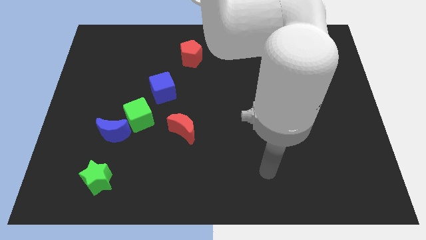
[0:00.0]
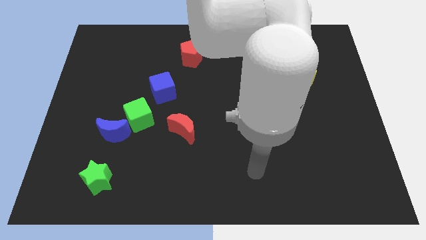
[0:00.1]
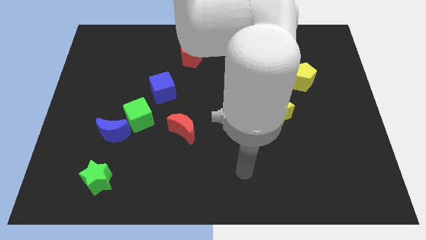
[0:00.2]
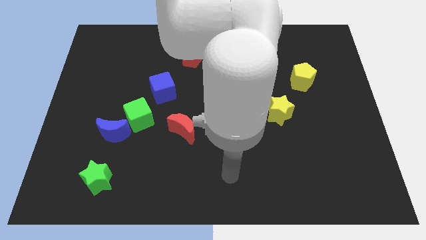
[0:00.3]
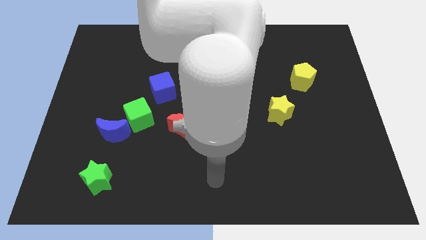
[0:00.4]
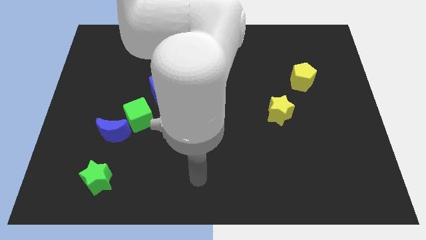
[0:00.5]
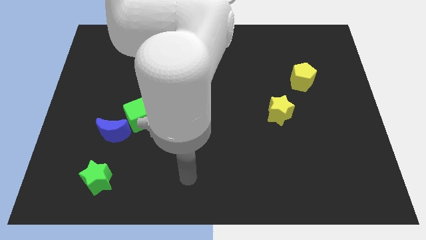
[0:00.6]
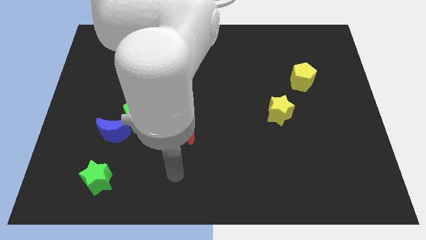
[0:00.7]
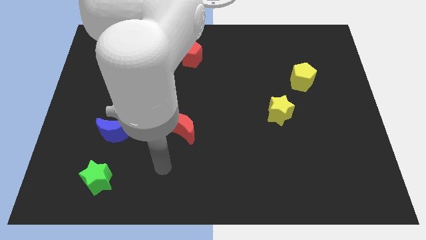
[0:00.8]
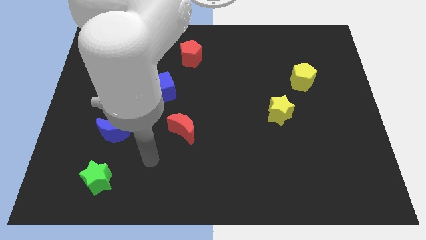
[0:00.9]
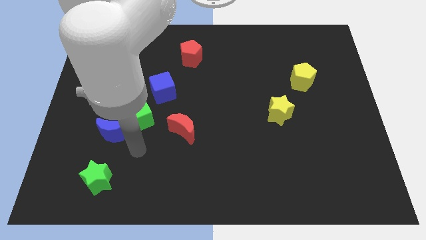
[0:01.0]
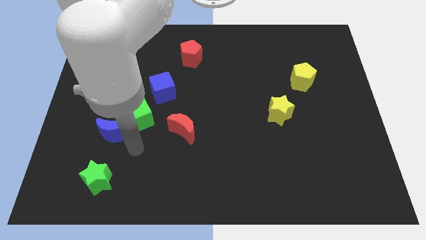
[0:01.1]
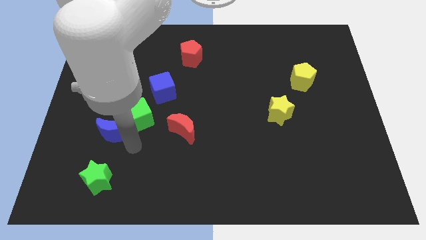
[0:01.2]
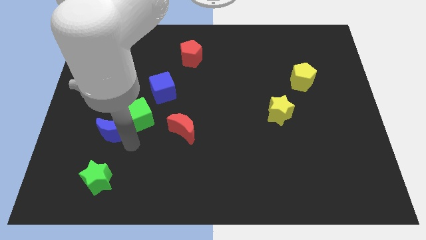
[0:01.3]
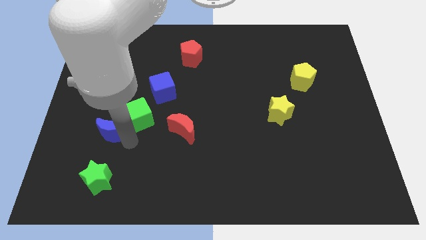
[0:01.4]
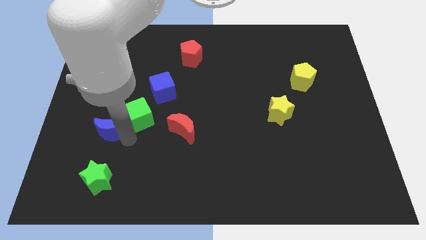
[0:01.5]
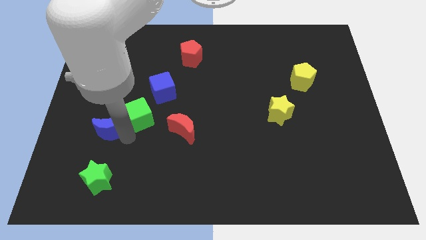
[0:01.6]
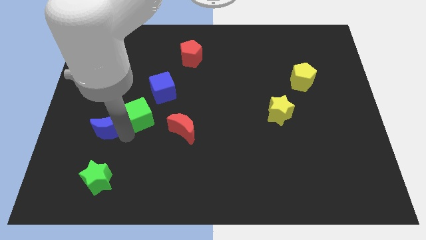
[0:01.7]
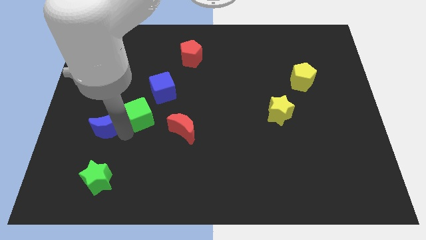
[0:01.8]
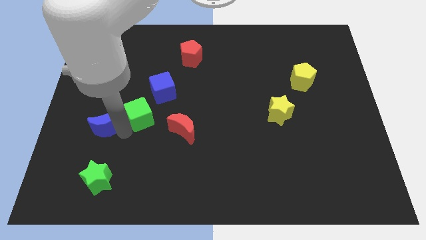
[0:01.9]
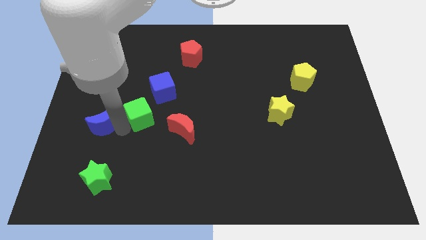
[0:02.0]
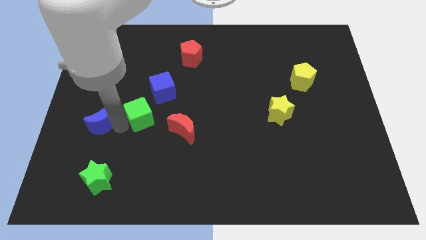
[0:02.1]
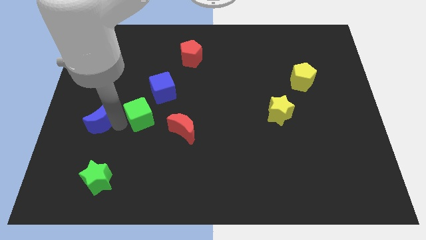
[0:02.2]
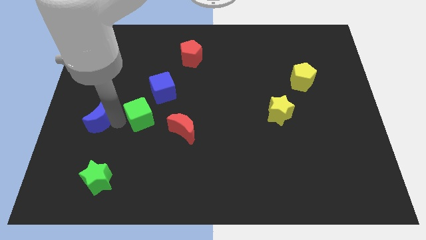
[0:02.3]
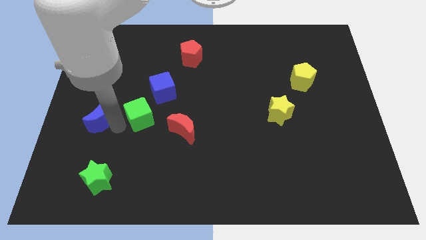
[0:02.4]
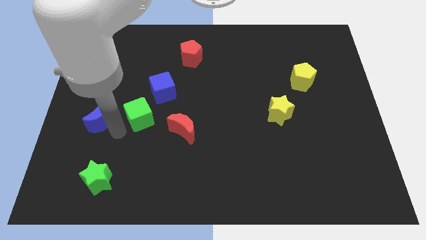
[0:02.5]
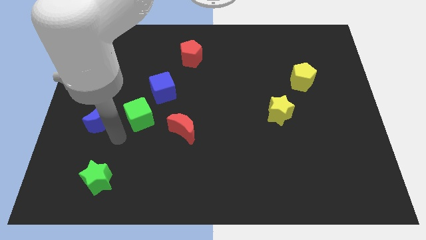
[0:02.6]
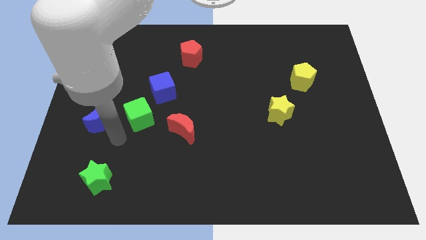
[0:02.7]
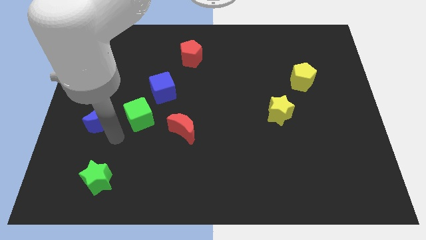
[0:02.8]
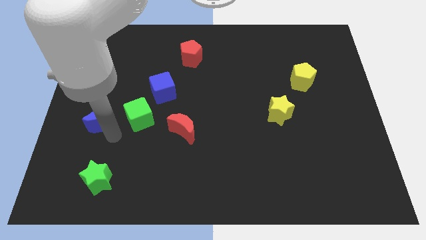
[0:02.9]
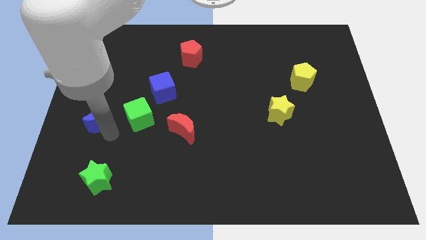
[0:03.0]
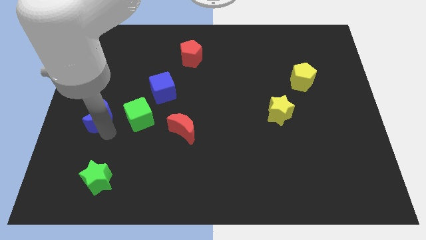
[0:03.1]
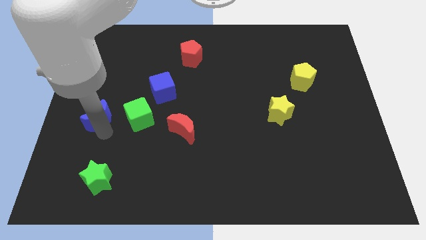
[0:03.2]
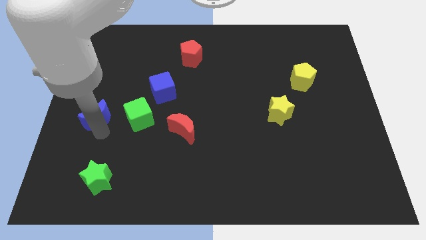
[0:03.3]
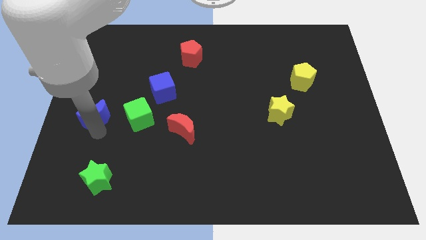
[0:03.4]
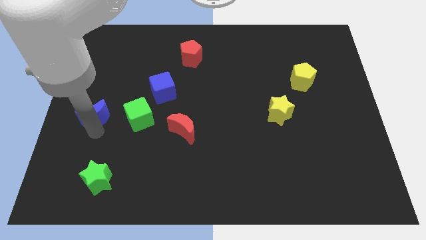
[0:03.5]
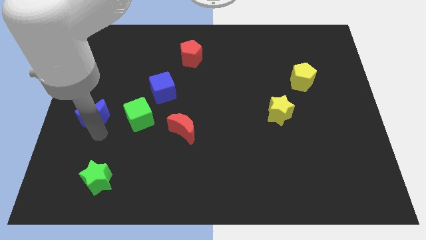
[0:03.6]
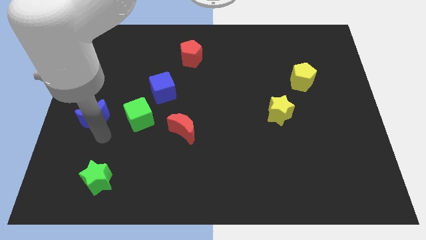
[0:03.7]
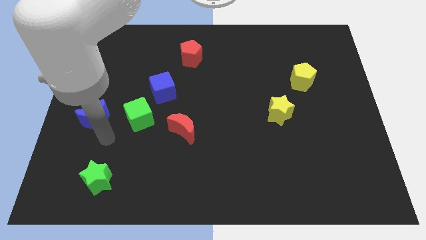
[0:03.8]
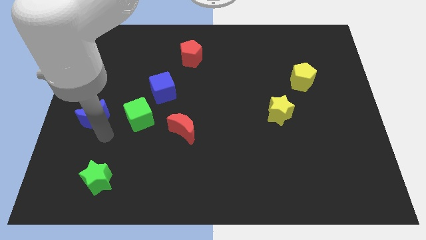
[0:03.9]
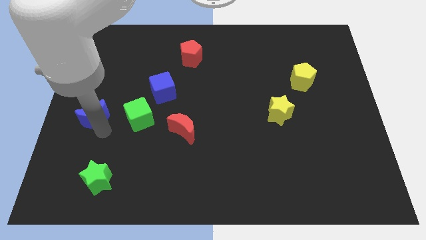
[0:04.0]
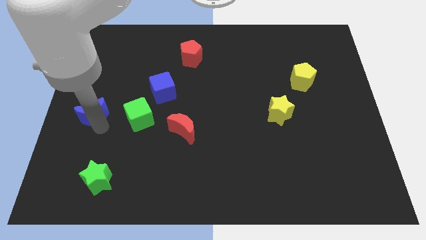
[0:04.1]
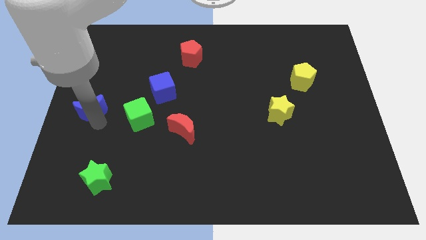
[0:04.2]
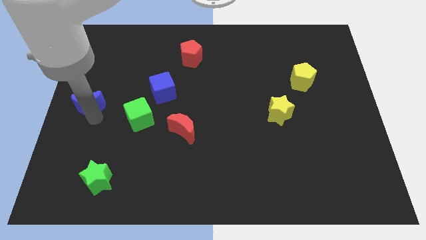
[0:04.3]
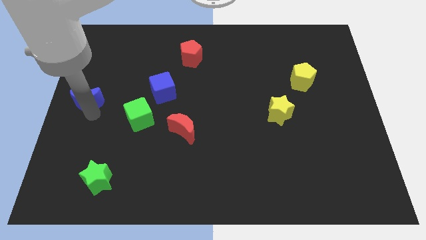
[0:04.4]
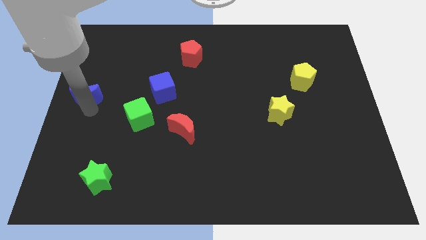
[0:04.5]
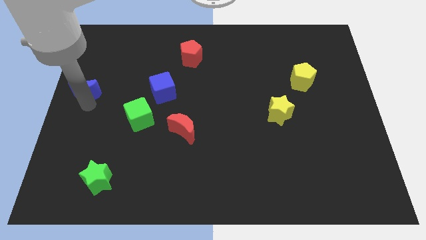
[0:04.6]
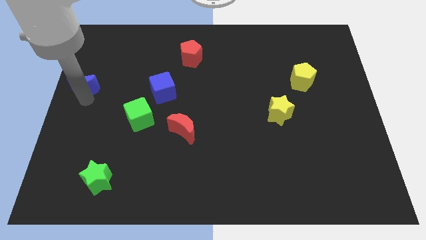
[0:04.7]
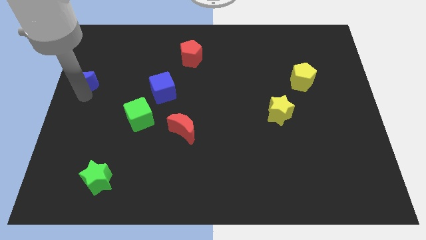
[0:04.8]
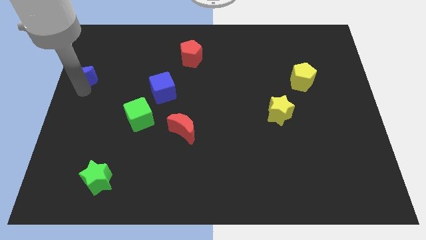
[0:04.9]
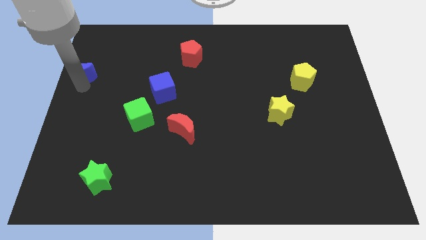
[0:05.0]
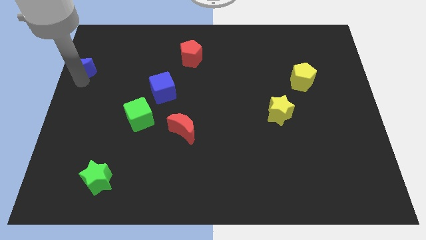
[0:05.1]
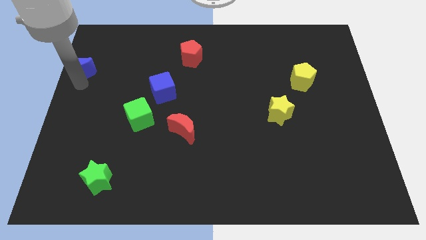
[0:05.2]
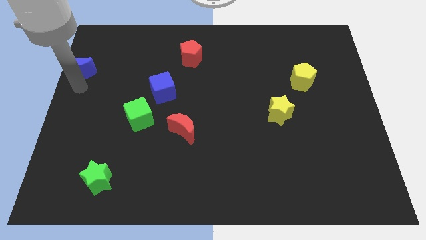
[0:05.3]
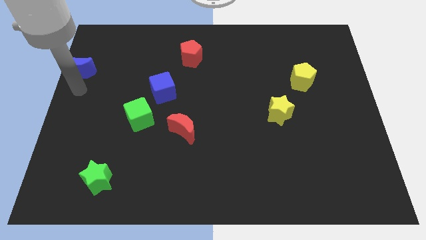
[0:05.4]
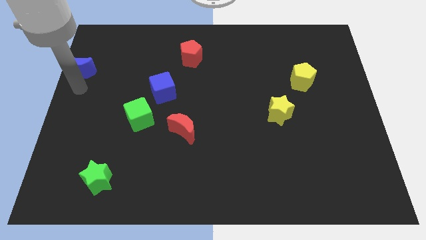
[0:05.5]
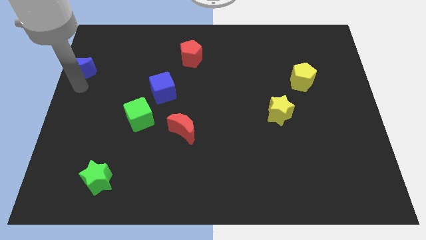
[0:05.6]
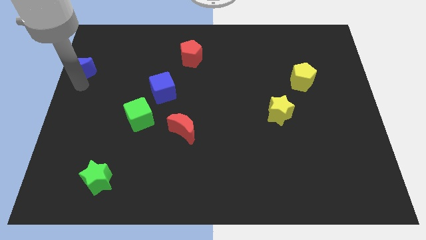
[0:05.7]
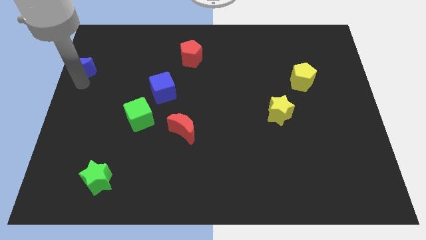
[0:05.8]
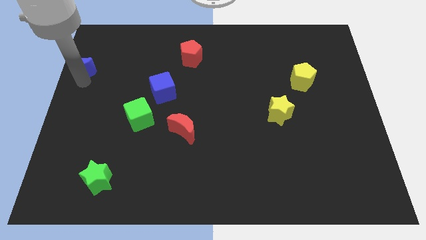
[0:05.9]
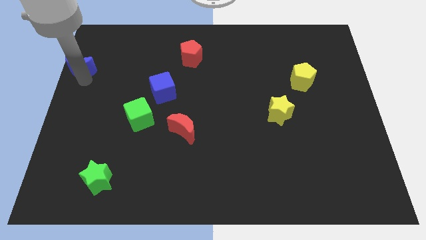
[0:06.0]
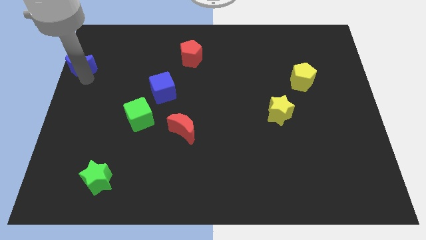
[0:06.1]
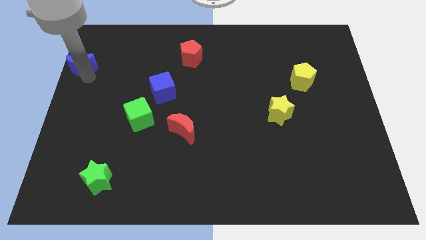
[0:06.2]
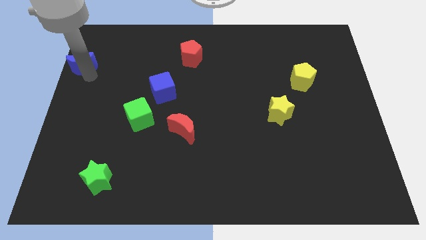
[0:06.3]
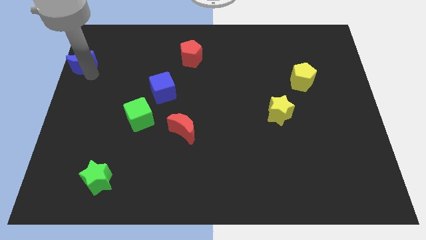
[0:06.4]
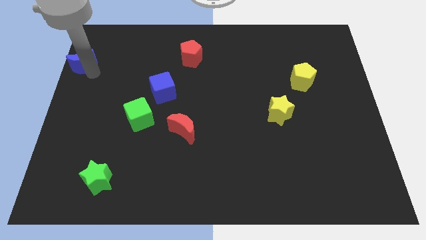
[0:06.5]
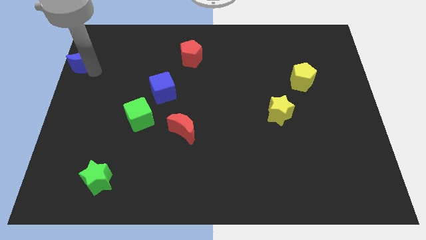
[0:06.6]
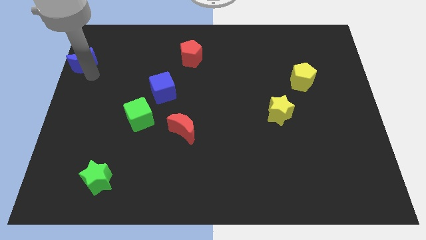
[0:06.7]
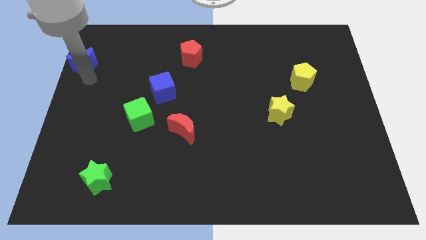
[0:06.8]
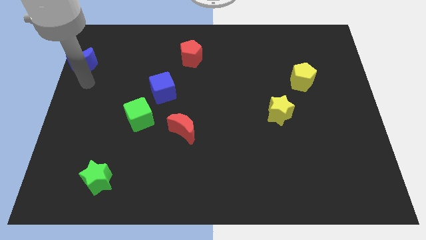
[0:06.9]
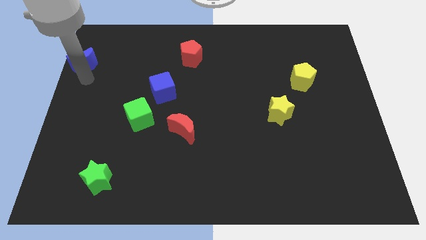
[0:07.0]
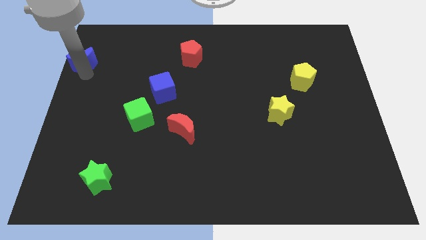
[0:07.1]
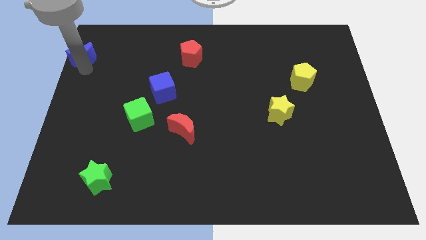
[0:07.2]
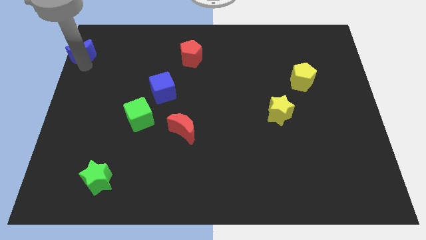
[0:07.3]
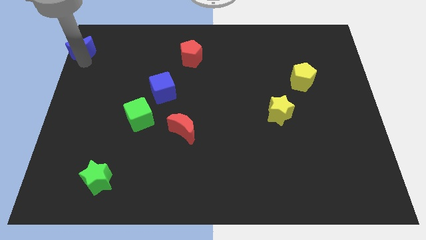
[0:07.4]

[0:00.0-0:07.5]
slide the blue moon to the top left
